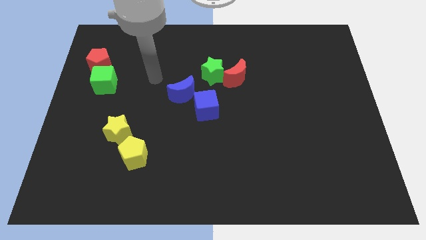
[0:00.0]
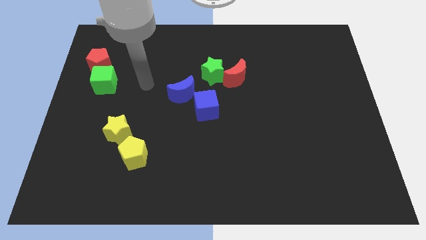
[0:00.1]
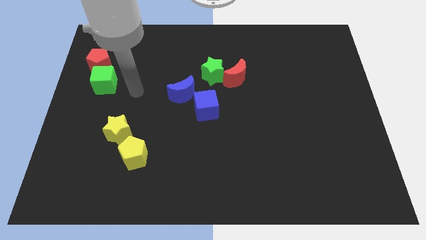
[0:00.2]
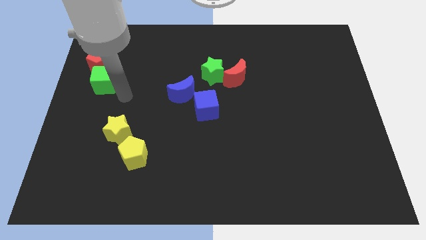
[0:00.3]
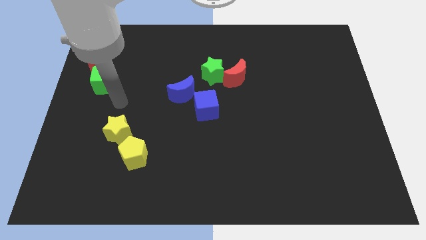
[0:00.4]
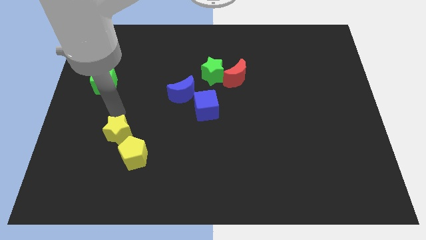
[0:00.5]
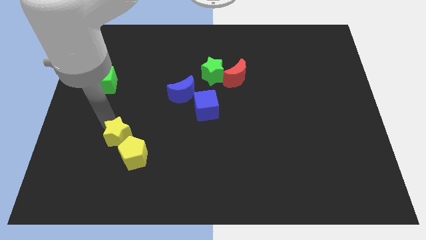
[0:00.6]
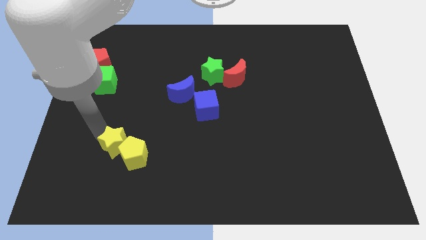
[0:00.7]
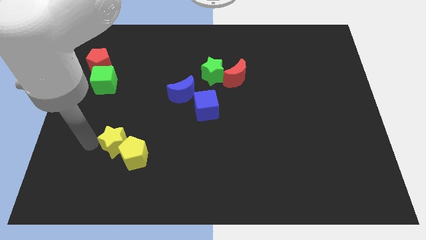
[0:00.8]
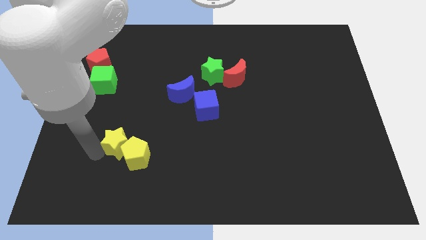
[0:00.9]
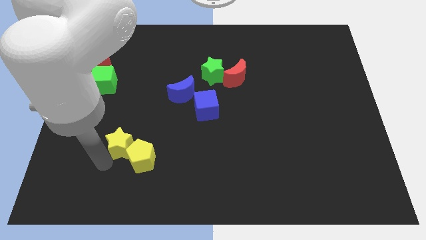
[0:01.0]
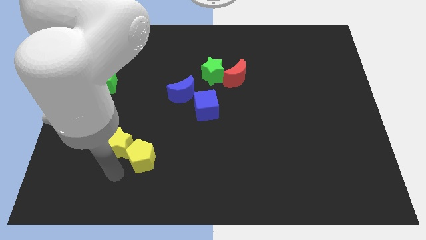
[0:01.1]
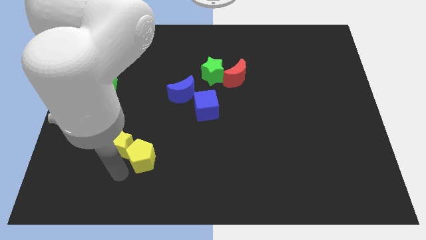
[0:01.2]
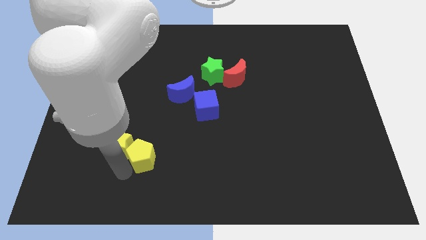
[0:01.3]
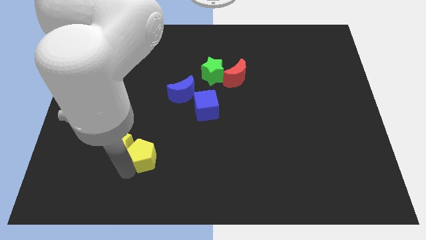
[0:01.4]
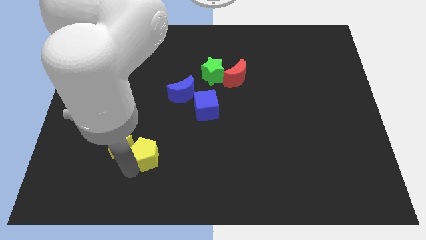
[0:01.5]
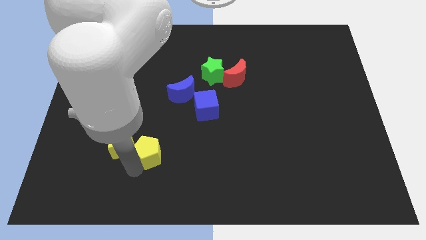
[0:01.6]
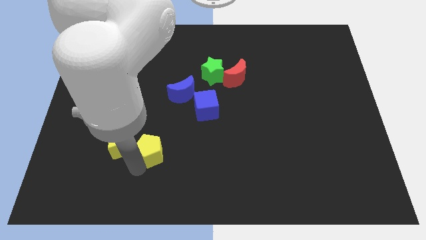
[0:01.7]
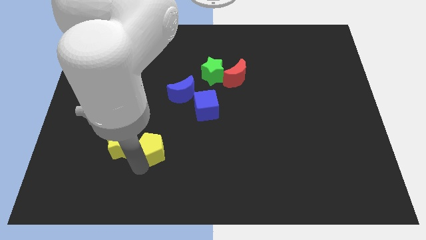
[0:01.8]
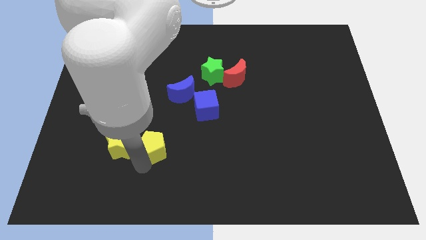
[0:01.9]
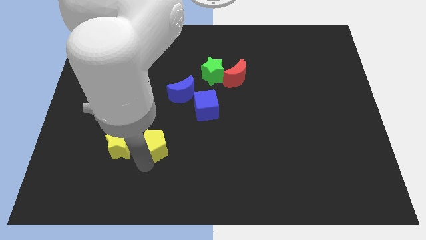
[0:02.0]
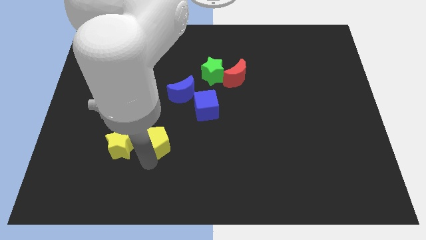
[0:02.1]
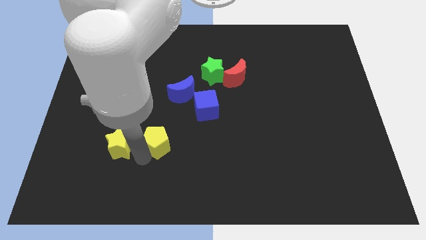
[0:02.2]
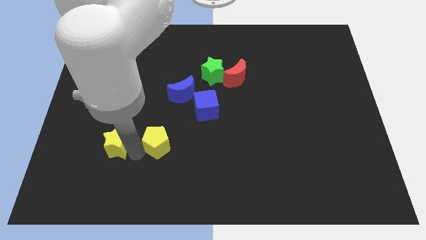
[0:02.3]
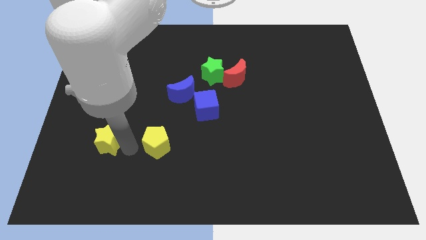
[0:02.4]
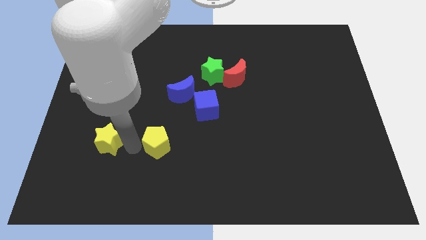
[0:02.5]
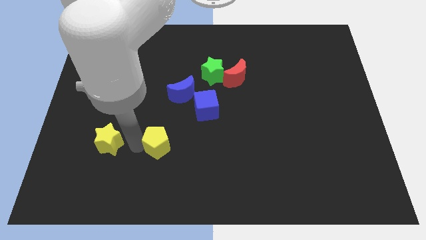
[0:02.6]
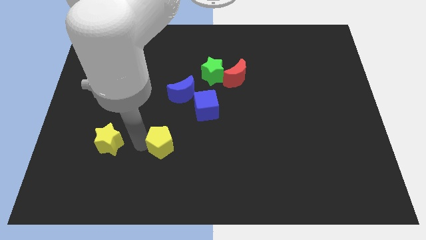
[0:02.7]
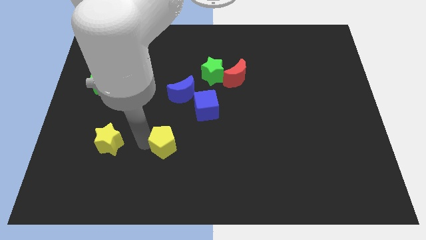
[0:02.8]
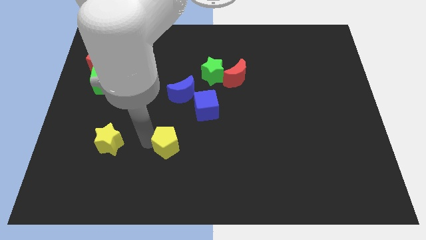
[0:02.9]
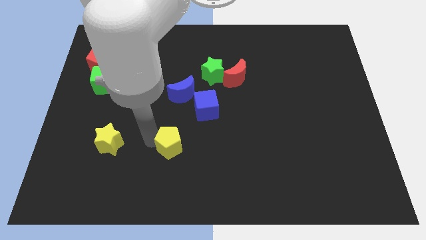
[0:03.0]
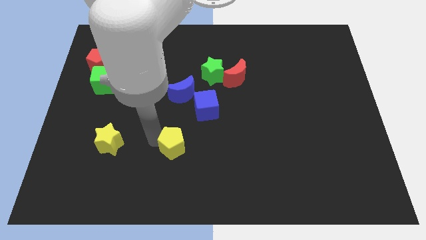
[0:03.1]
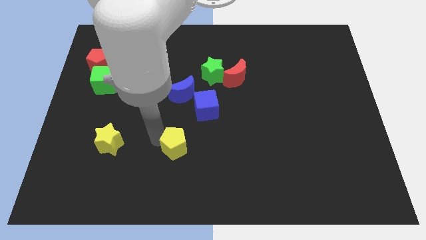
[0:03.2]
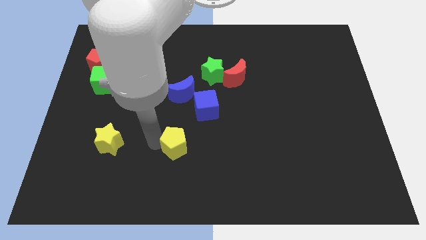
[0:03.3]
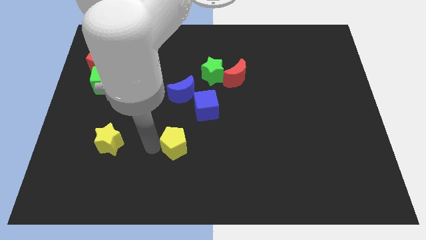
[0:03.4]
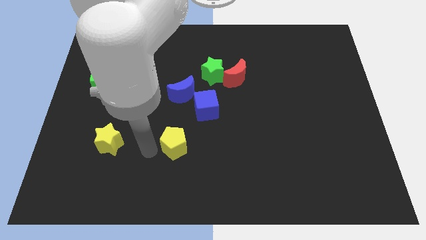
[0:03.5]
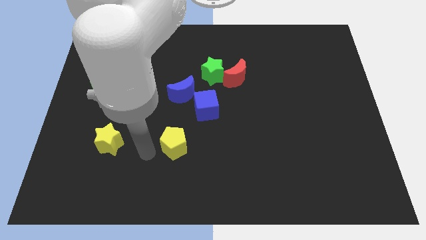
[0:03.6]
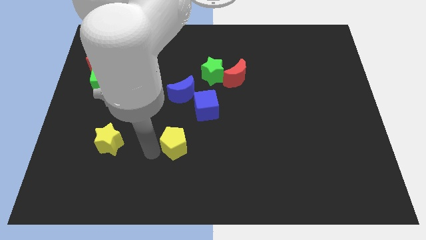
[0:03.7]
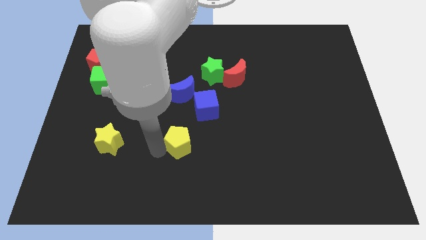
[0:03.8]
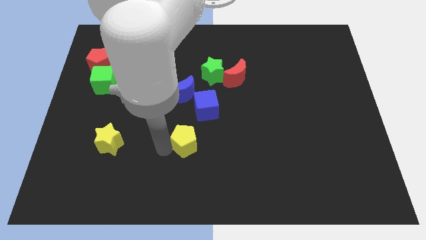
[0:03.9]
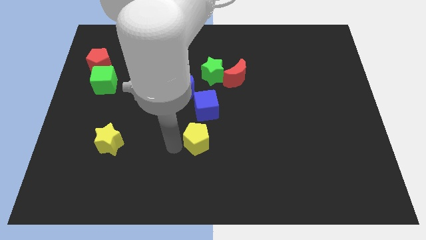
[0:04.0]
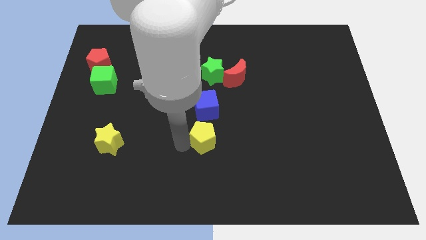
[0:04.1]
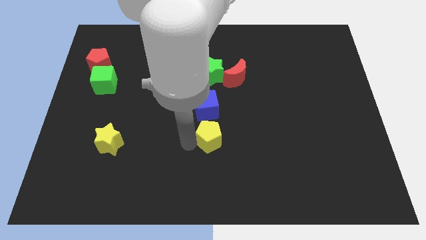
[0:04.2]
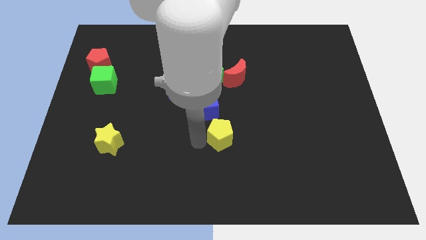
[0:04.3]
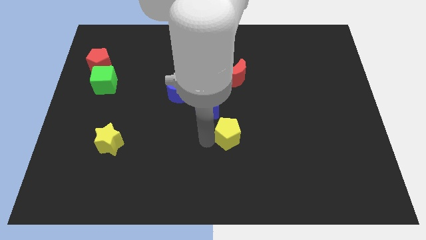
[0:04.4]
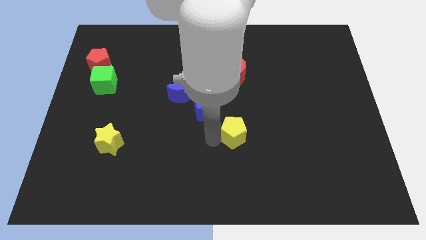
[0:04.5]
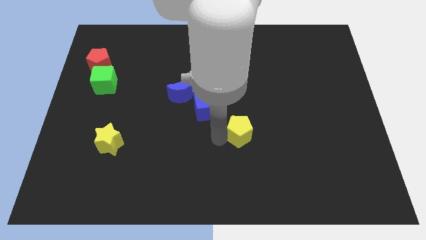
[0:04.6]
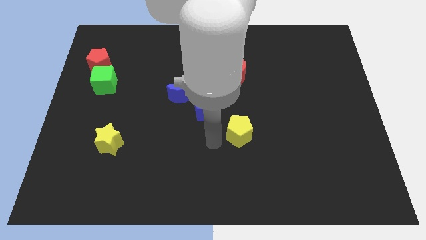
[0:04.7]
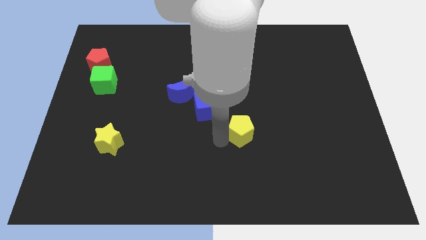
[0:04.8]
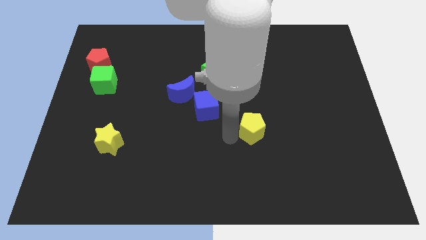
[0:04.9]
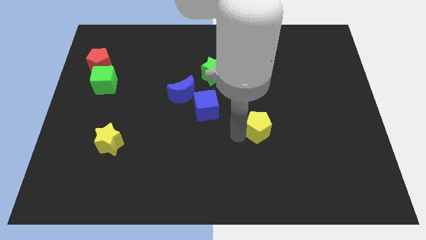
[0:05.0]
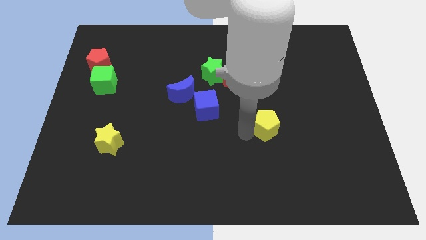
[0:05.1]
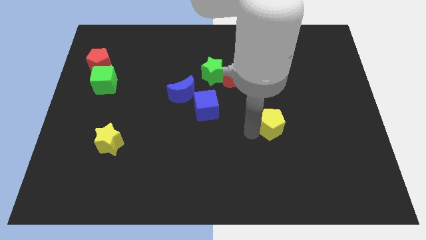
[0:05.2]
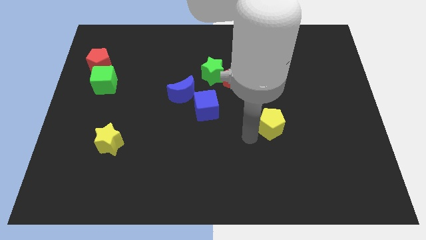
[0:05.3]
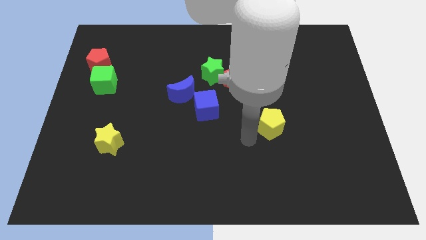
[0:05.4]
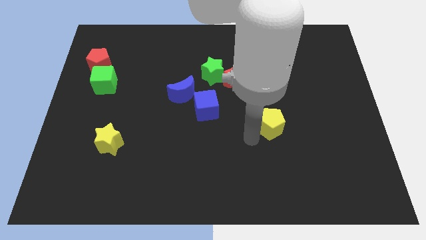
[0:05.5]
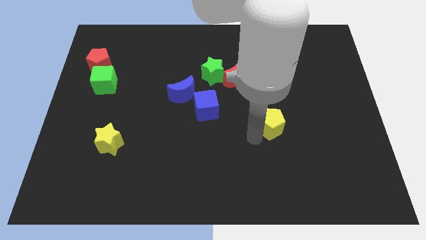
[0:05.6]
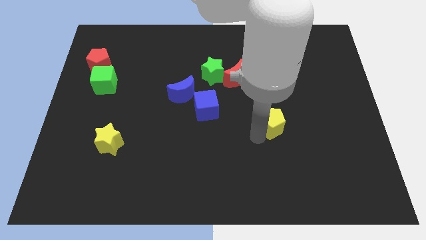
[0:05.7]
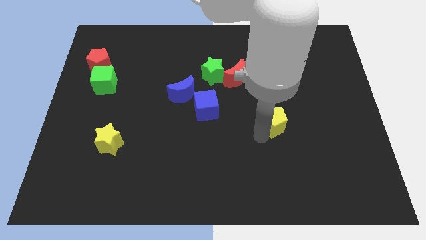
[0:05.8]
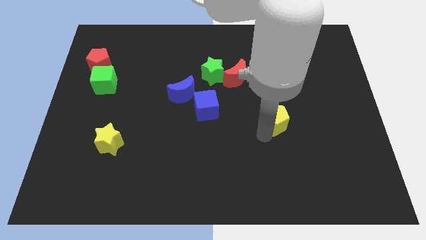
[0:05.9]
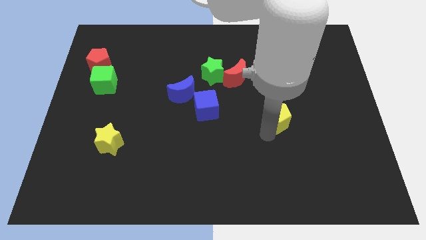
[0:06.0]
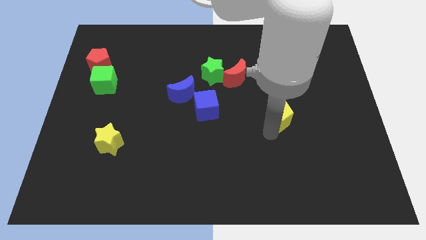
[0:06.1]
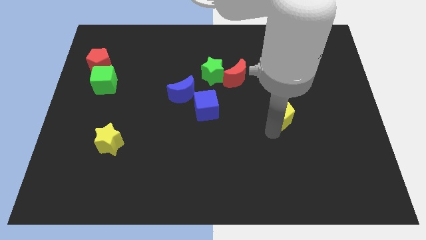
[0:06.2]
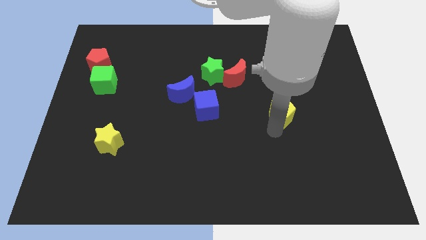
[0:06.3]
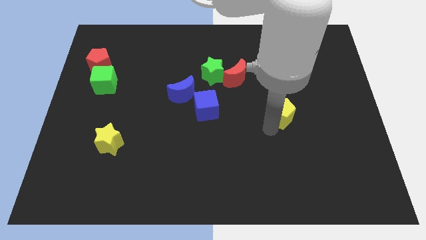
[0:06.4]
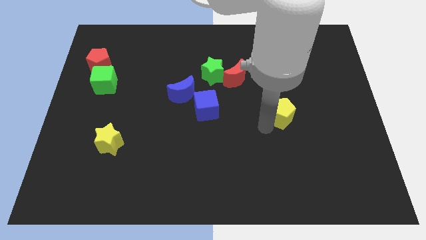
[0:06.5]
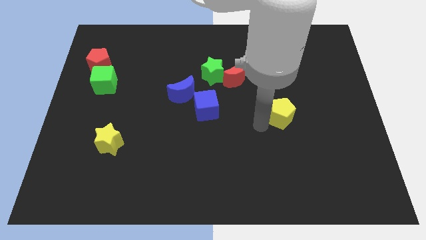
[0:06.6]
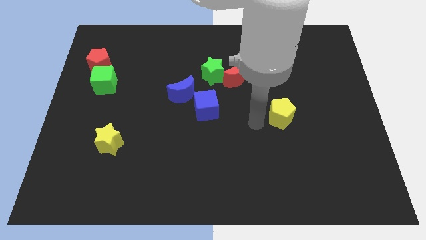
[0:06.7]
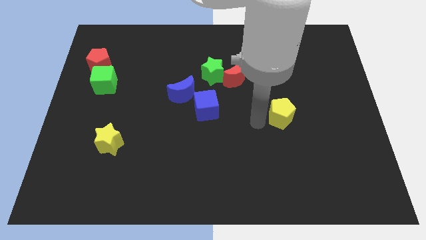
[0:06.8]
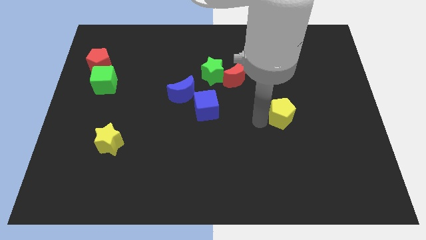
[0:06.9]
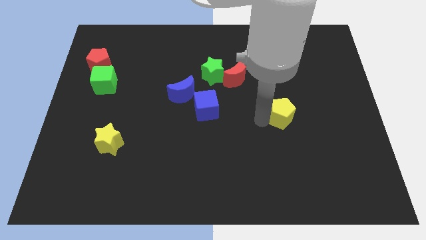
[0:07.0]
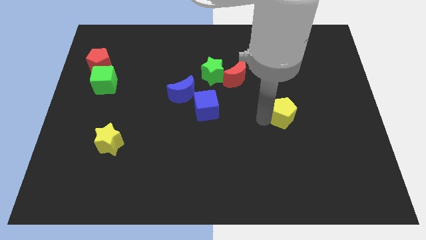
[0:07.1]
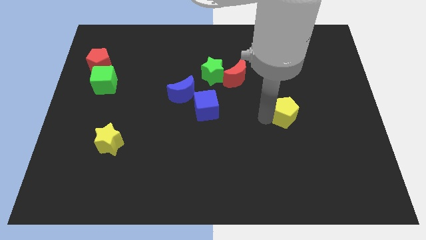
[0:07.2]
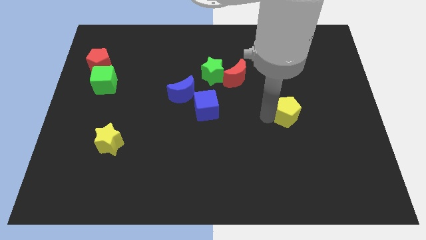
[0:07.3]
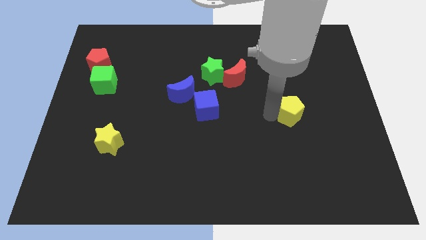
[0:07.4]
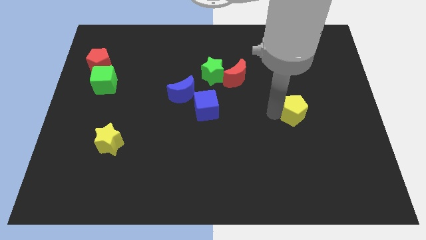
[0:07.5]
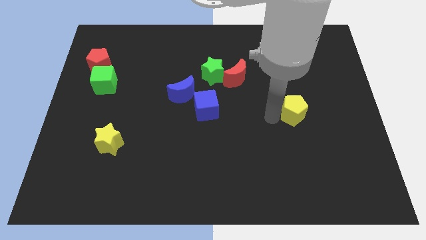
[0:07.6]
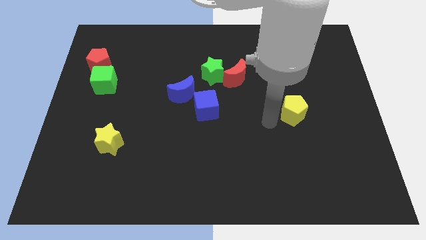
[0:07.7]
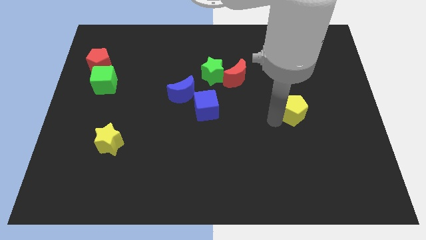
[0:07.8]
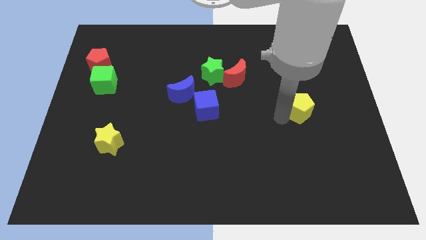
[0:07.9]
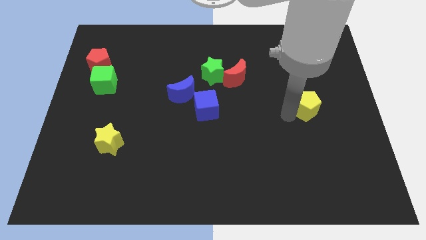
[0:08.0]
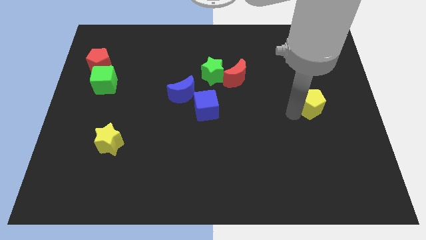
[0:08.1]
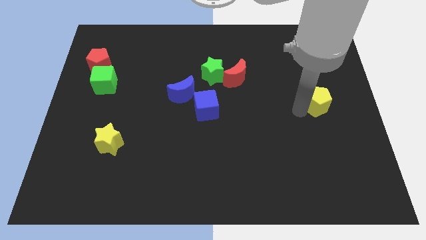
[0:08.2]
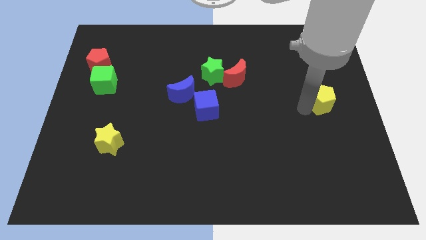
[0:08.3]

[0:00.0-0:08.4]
move the yellow pentagon to the right side
